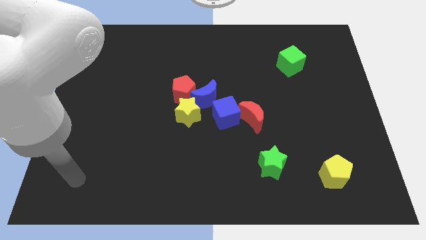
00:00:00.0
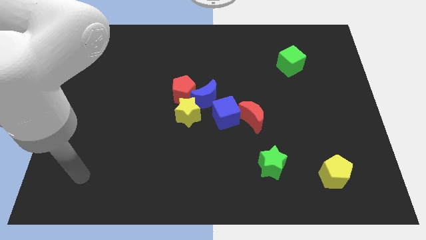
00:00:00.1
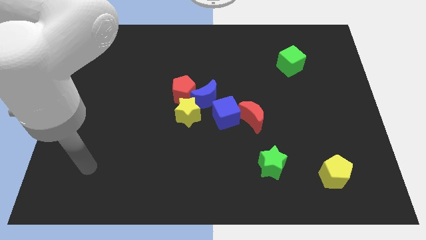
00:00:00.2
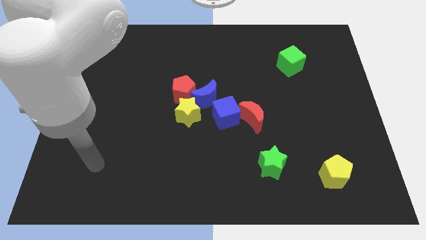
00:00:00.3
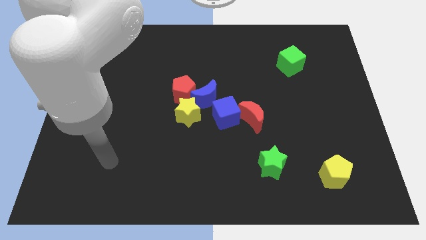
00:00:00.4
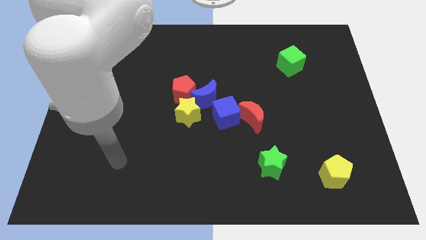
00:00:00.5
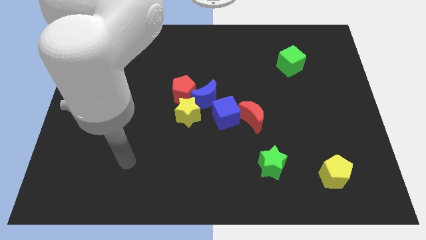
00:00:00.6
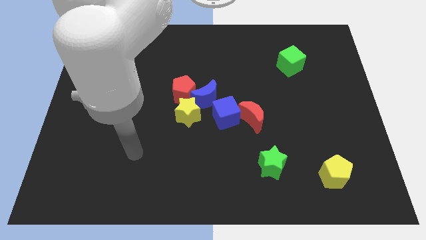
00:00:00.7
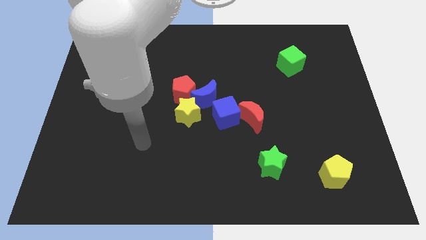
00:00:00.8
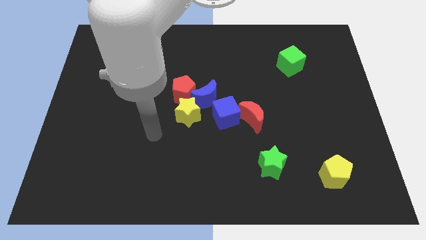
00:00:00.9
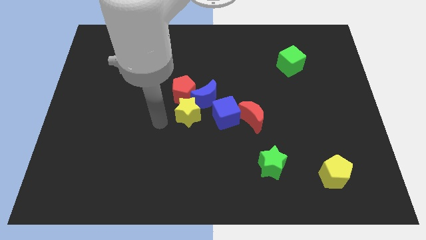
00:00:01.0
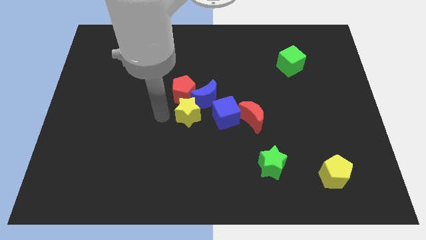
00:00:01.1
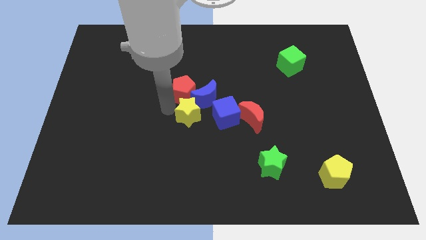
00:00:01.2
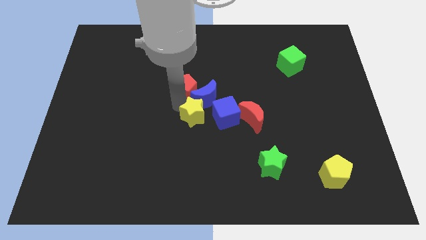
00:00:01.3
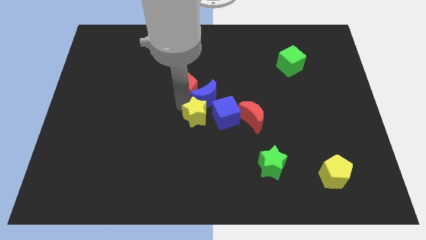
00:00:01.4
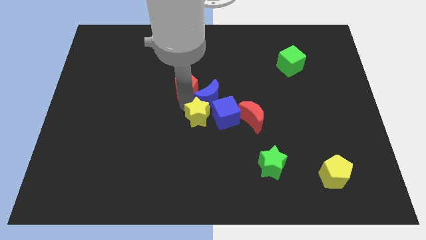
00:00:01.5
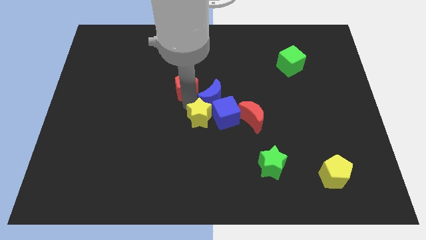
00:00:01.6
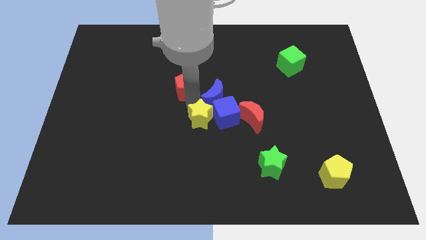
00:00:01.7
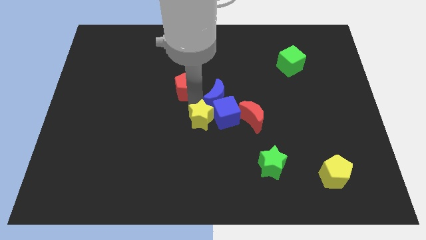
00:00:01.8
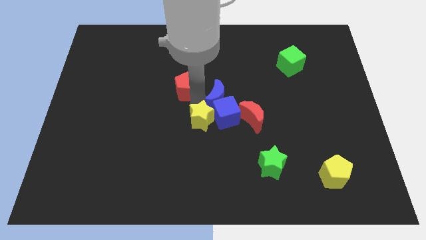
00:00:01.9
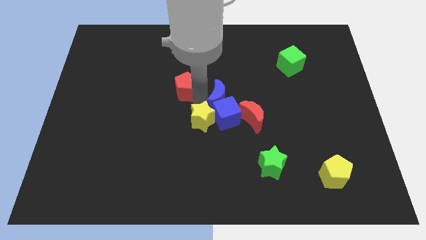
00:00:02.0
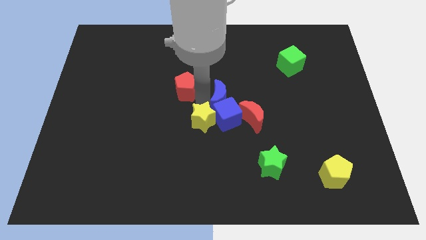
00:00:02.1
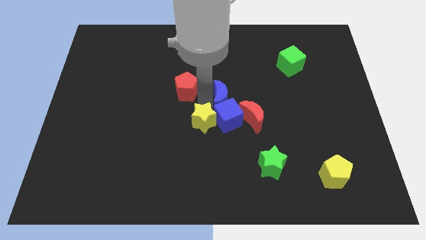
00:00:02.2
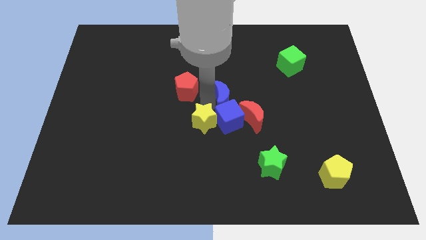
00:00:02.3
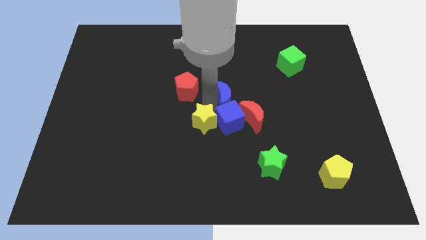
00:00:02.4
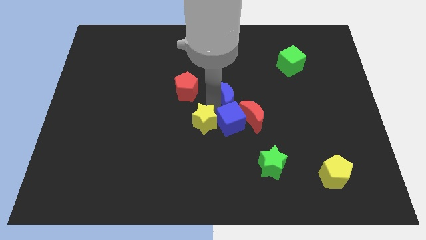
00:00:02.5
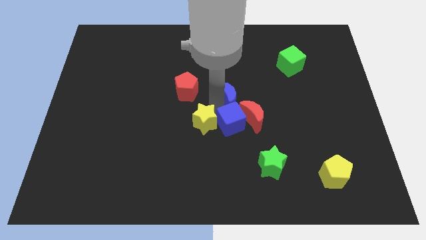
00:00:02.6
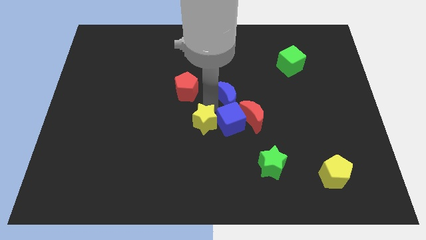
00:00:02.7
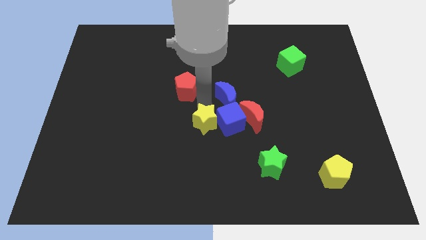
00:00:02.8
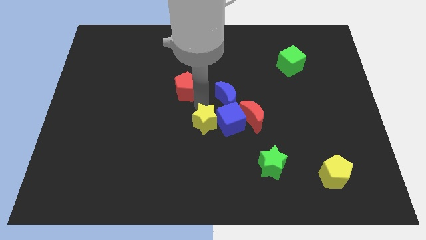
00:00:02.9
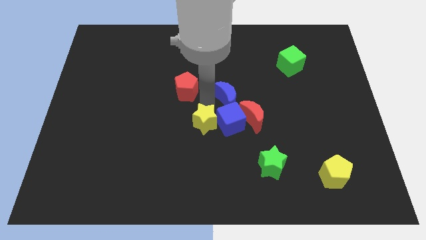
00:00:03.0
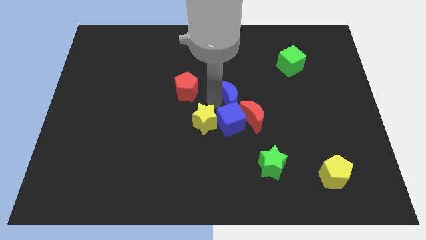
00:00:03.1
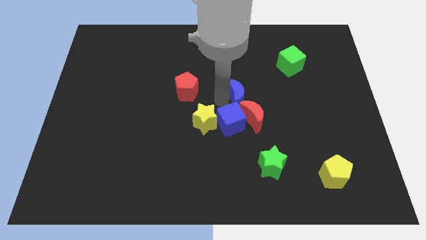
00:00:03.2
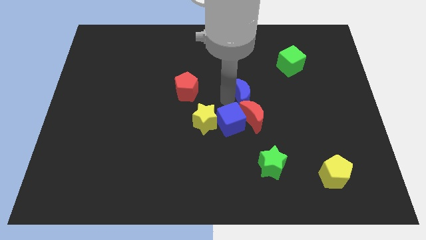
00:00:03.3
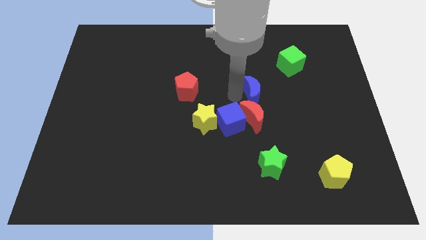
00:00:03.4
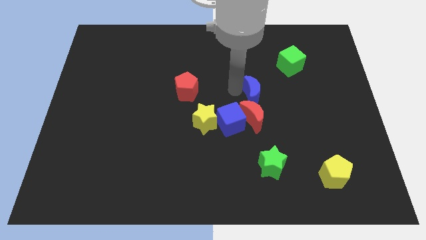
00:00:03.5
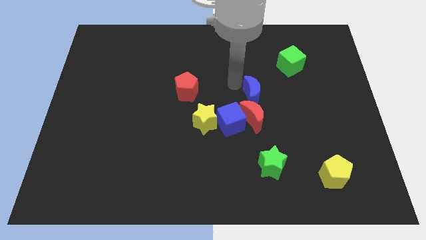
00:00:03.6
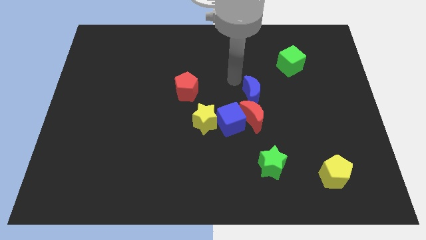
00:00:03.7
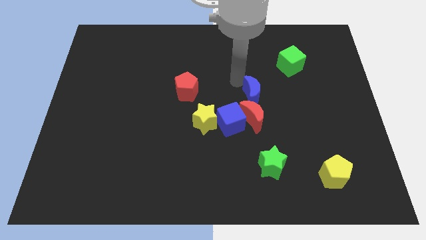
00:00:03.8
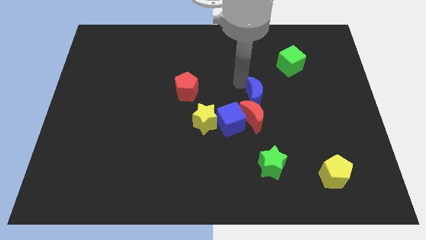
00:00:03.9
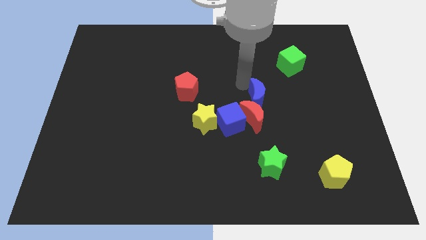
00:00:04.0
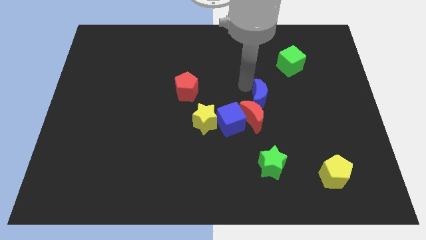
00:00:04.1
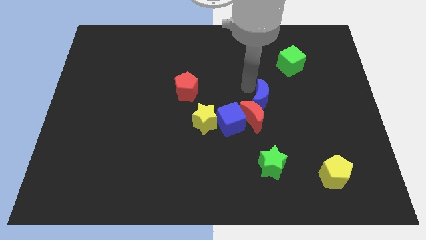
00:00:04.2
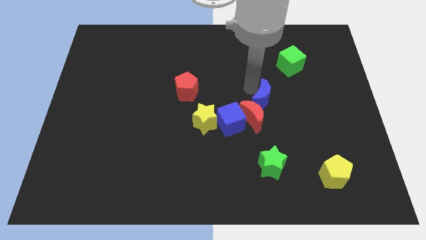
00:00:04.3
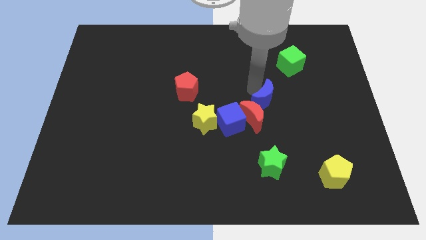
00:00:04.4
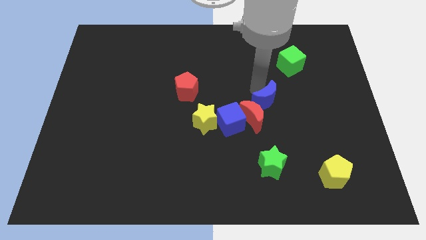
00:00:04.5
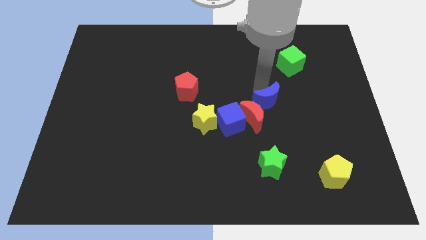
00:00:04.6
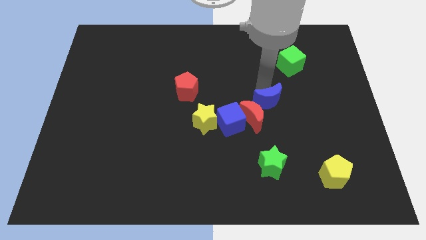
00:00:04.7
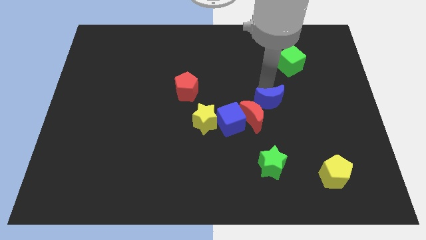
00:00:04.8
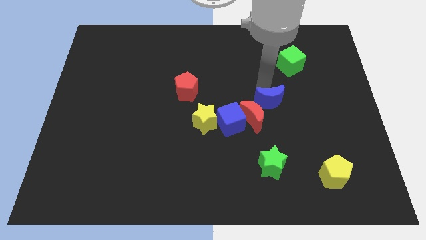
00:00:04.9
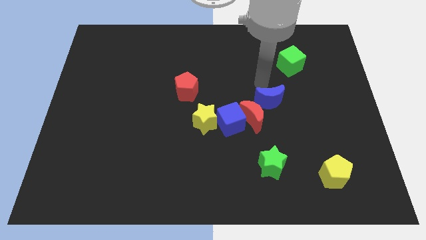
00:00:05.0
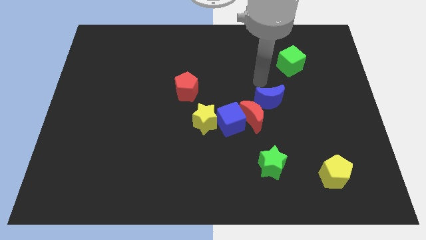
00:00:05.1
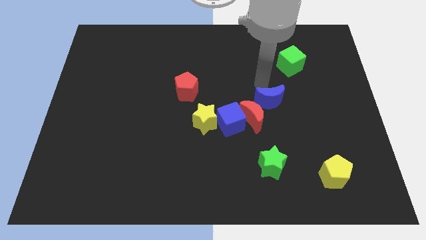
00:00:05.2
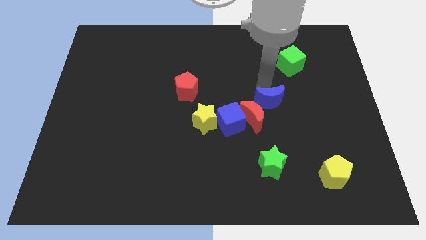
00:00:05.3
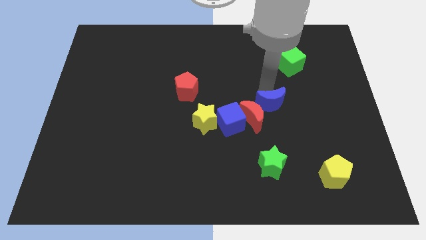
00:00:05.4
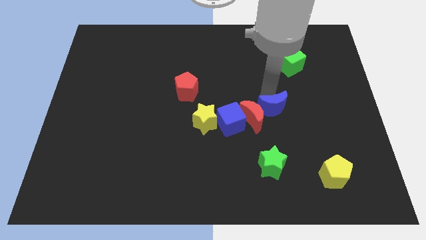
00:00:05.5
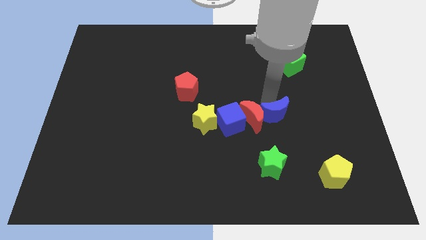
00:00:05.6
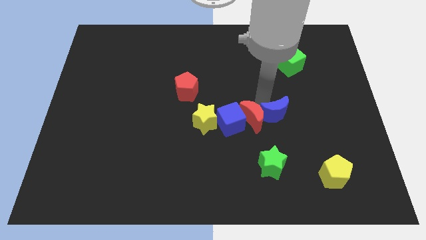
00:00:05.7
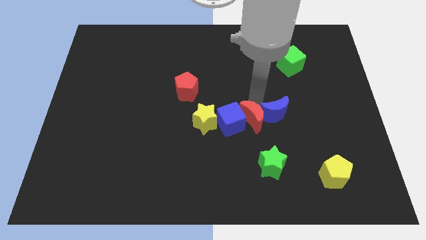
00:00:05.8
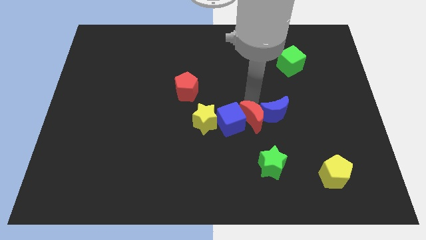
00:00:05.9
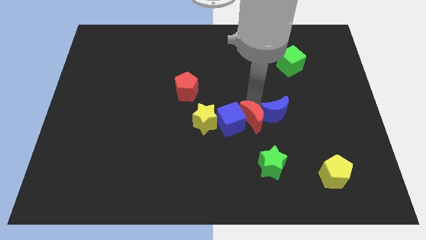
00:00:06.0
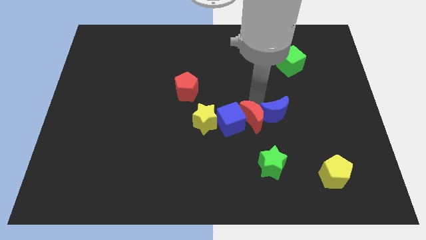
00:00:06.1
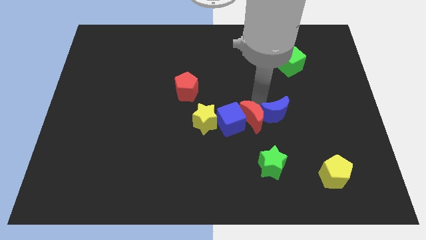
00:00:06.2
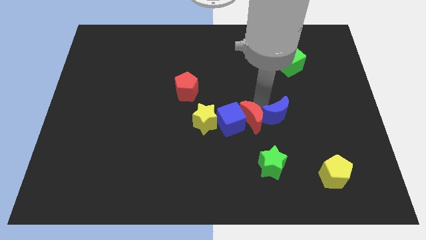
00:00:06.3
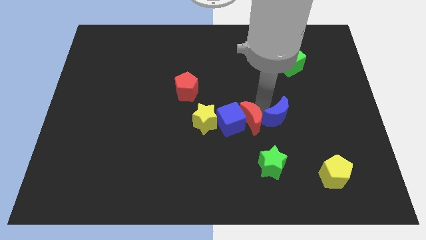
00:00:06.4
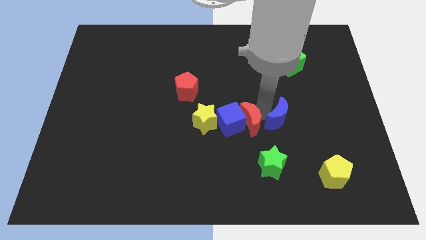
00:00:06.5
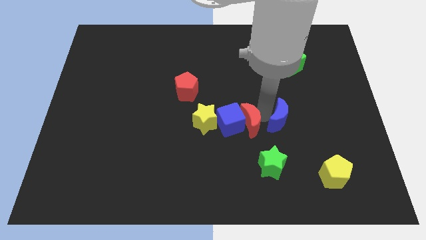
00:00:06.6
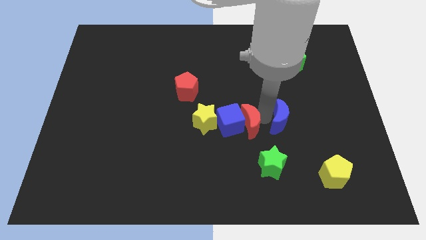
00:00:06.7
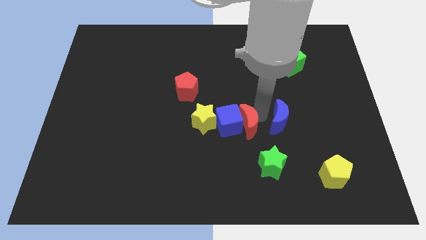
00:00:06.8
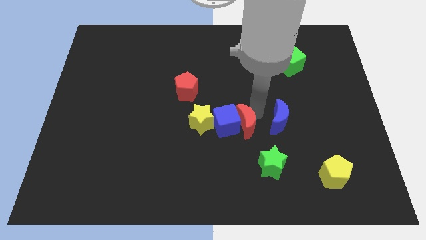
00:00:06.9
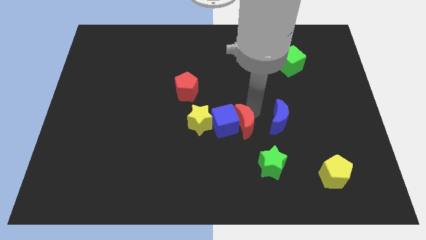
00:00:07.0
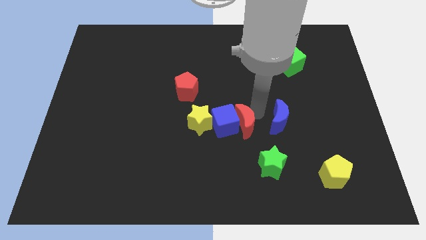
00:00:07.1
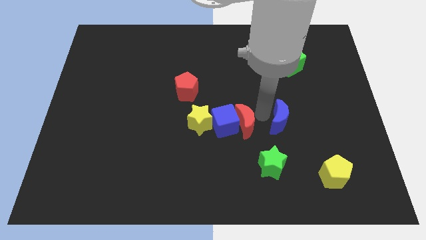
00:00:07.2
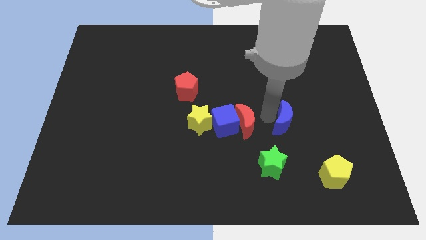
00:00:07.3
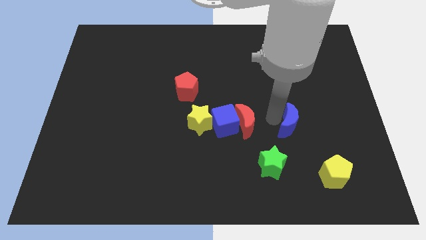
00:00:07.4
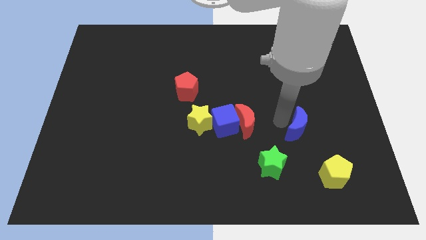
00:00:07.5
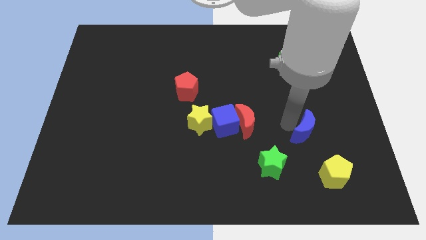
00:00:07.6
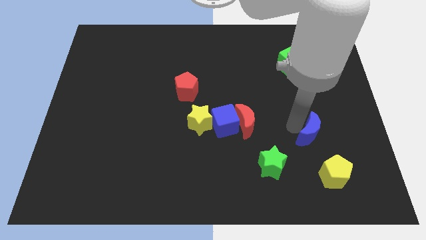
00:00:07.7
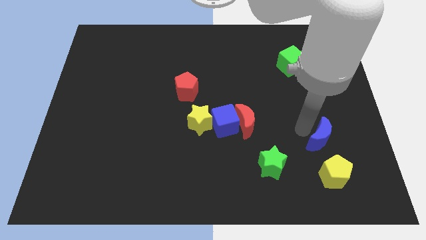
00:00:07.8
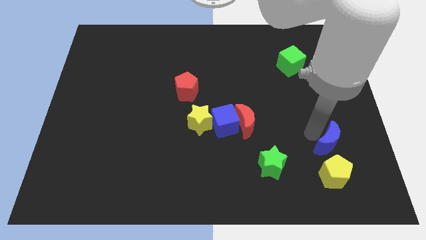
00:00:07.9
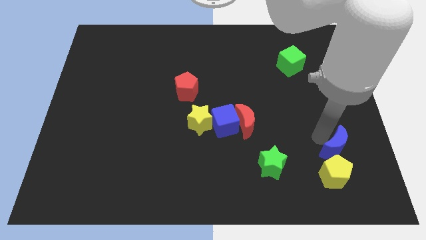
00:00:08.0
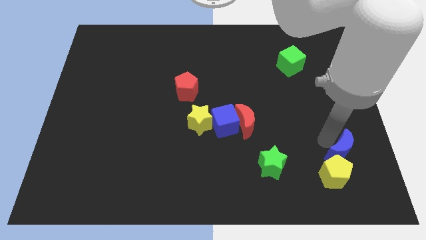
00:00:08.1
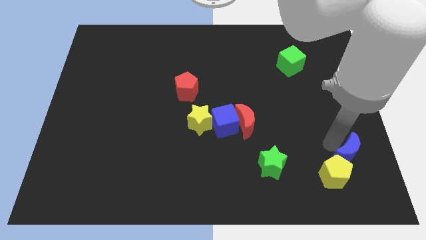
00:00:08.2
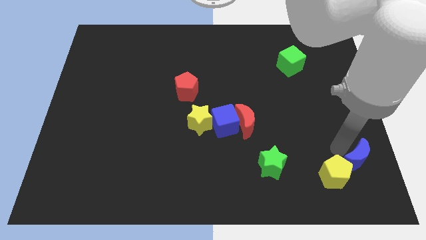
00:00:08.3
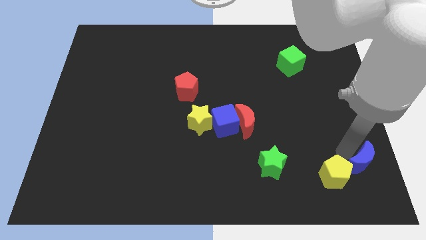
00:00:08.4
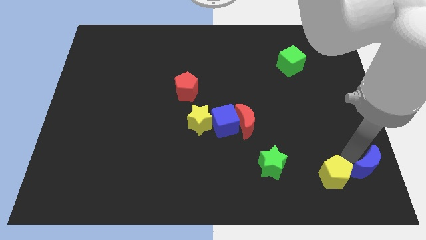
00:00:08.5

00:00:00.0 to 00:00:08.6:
move the blue moon to the bottom right of the board
